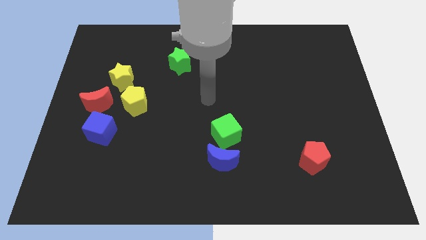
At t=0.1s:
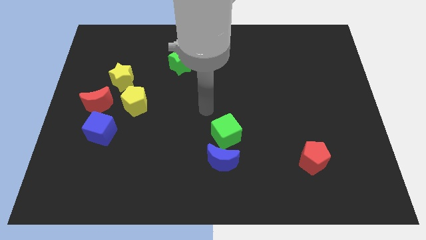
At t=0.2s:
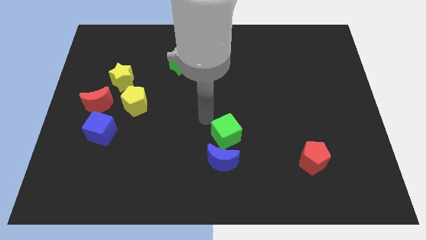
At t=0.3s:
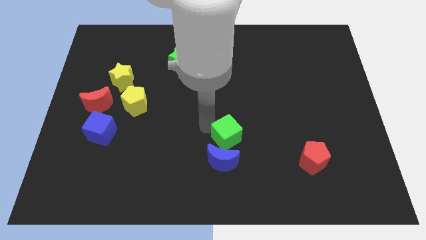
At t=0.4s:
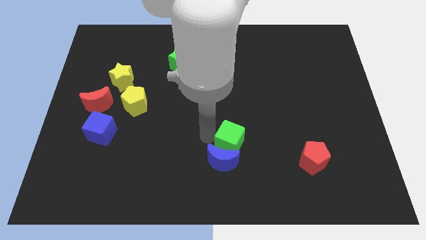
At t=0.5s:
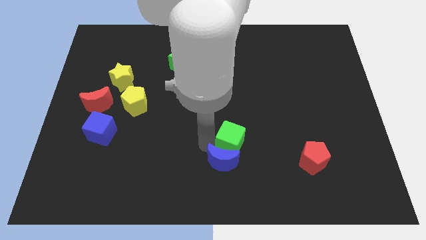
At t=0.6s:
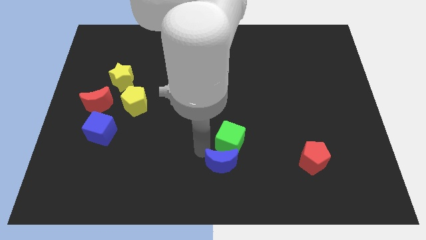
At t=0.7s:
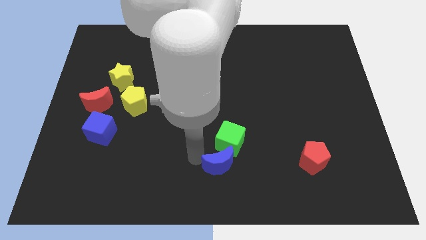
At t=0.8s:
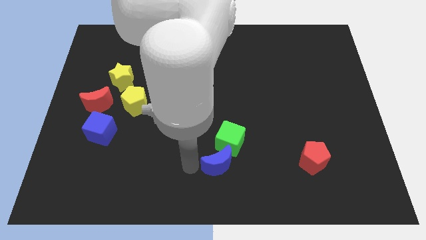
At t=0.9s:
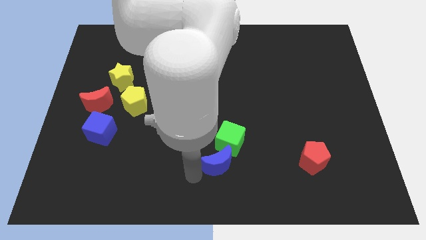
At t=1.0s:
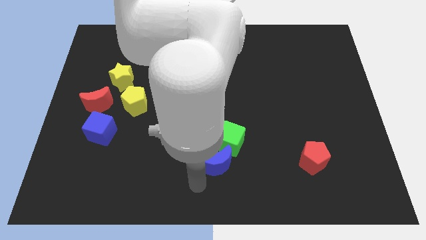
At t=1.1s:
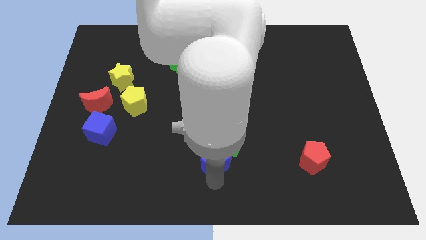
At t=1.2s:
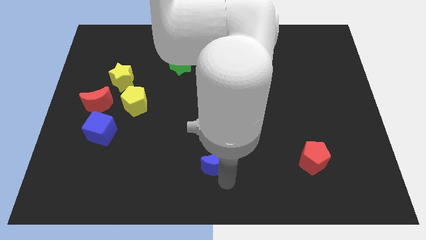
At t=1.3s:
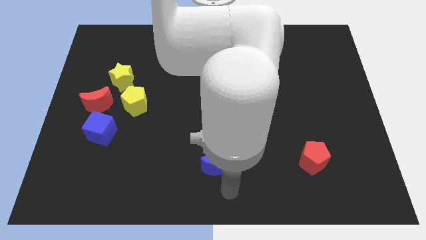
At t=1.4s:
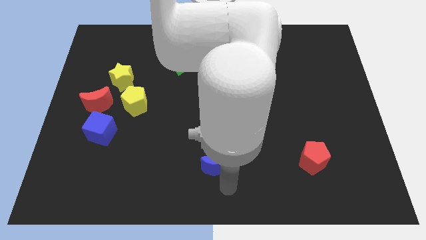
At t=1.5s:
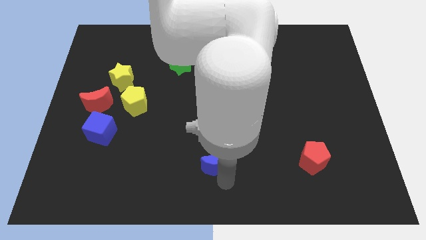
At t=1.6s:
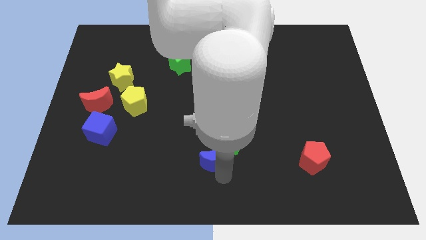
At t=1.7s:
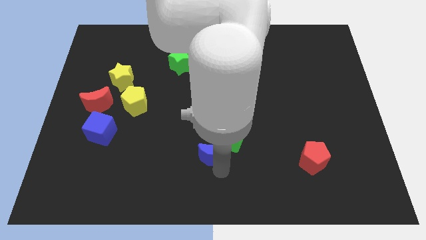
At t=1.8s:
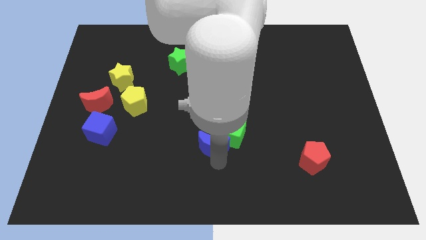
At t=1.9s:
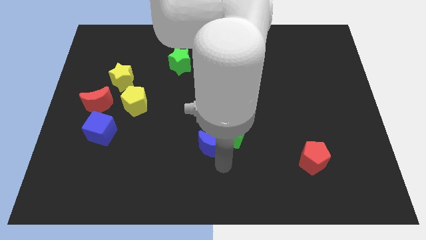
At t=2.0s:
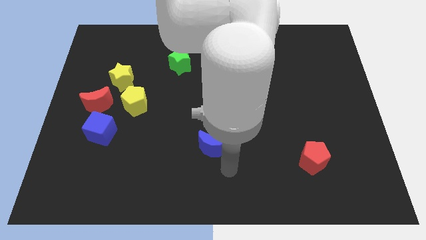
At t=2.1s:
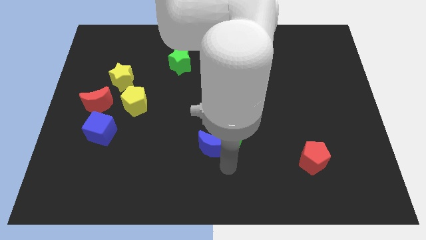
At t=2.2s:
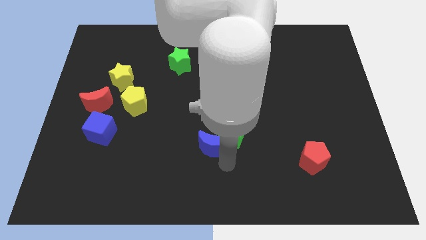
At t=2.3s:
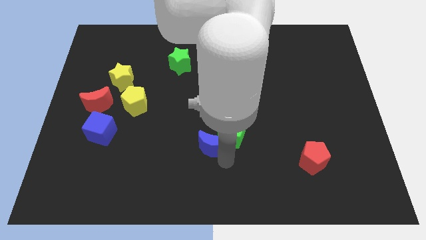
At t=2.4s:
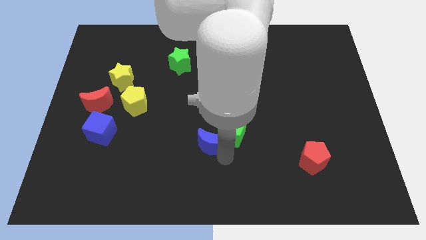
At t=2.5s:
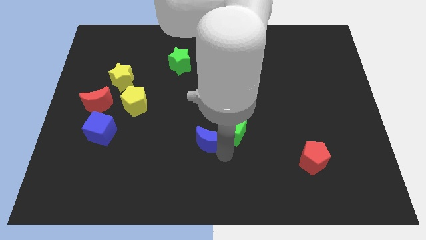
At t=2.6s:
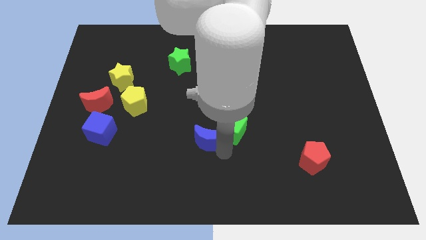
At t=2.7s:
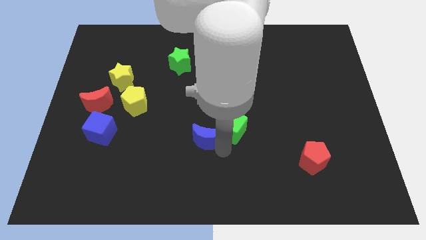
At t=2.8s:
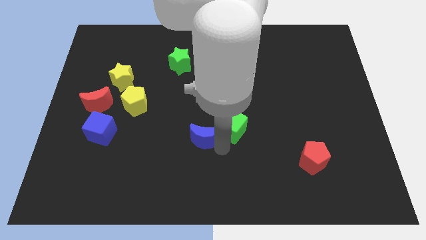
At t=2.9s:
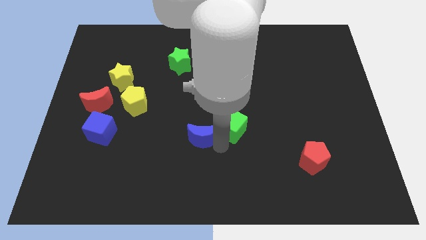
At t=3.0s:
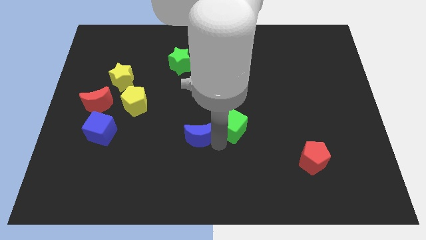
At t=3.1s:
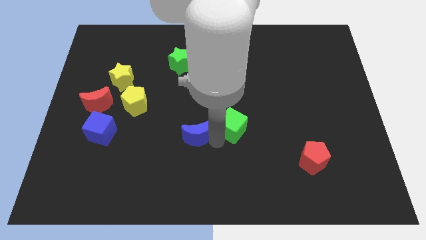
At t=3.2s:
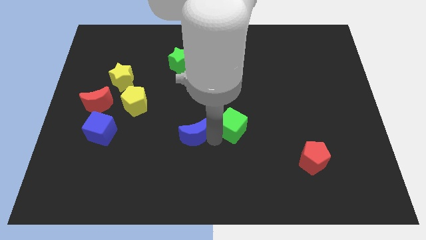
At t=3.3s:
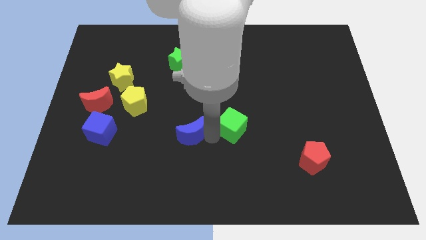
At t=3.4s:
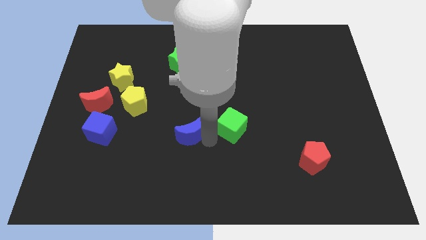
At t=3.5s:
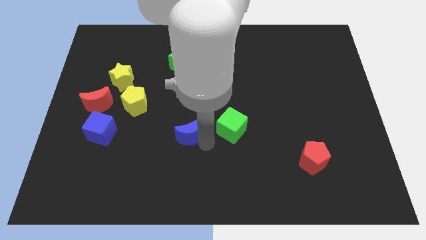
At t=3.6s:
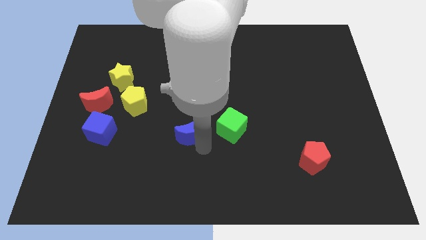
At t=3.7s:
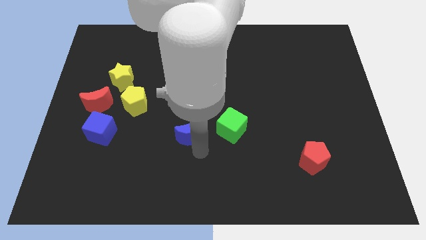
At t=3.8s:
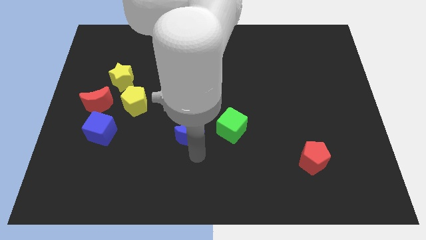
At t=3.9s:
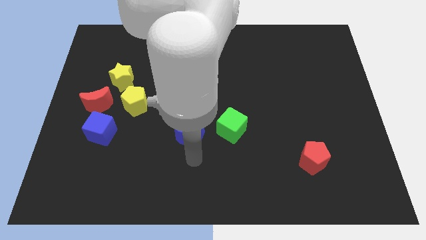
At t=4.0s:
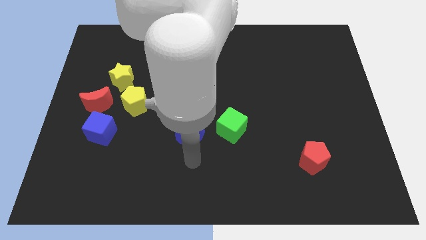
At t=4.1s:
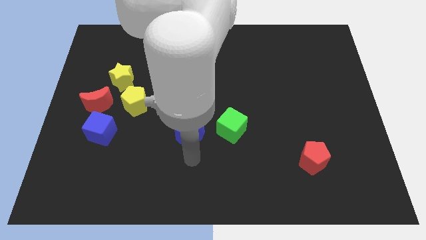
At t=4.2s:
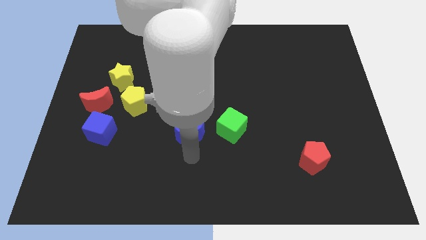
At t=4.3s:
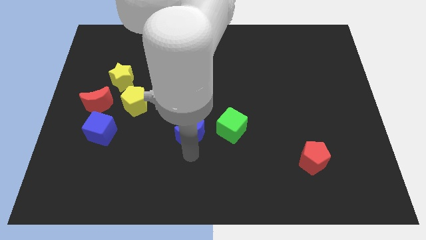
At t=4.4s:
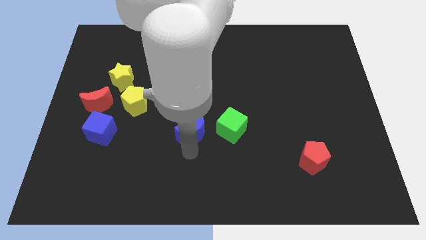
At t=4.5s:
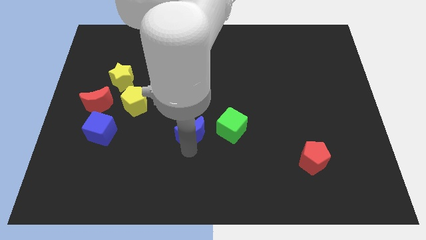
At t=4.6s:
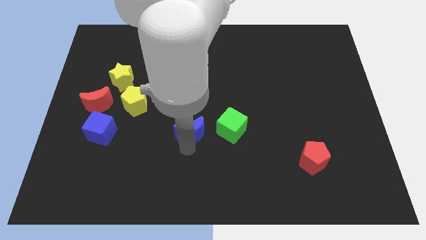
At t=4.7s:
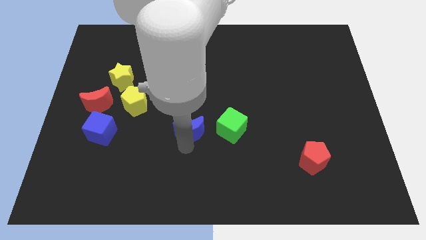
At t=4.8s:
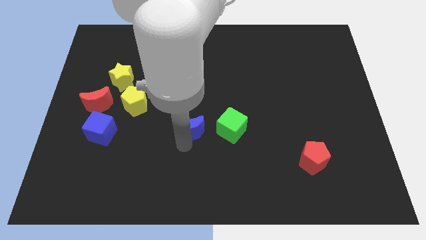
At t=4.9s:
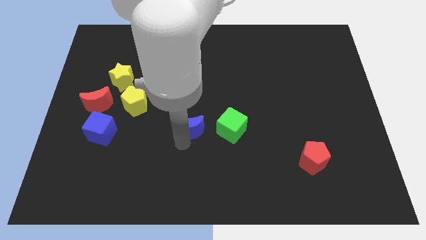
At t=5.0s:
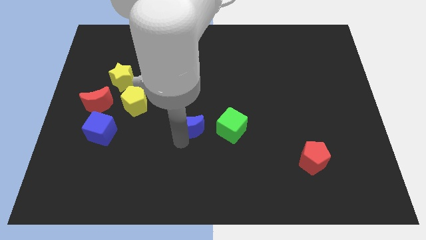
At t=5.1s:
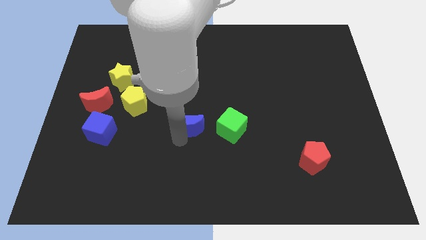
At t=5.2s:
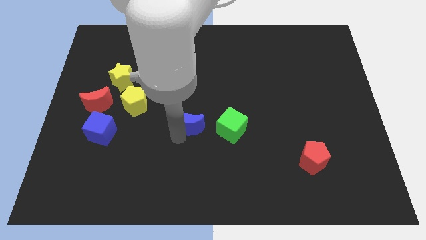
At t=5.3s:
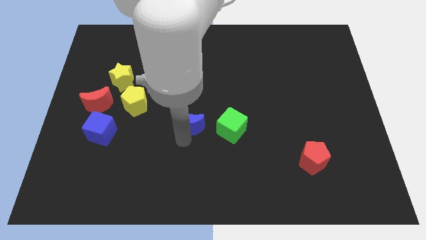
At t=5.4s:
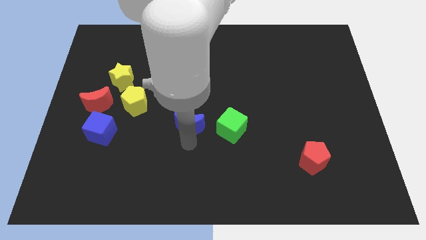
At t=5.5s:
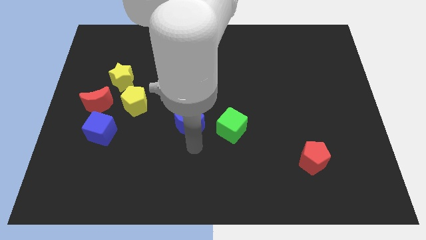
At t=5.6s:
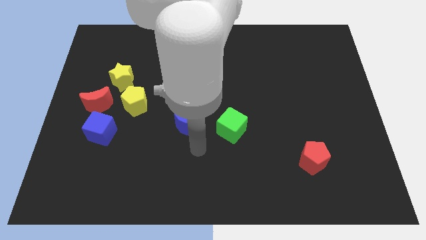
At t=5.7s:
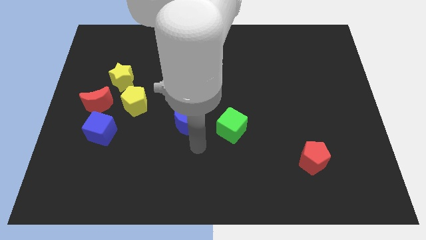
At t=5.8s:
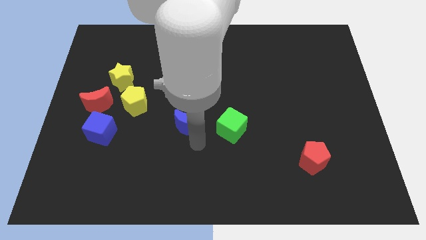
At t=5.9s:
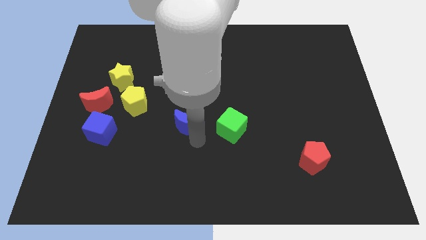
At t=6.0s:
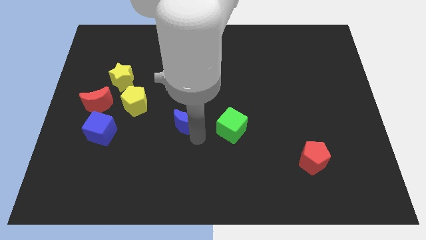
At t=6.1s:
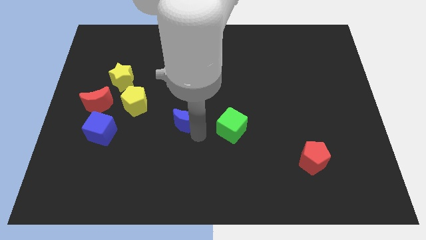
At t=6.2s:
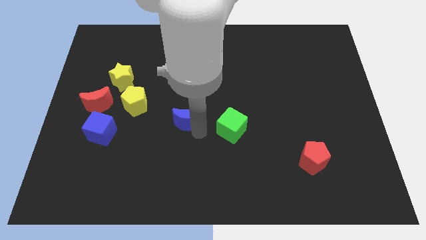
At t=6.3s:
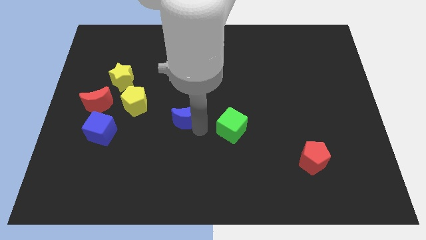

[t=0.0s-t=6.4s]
push the blue moon right of the yellow pentagon

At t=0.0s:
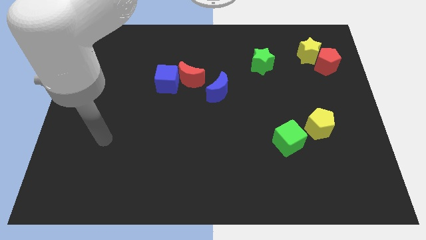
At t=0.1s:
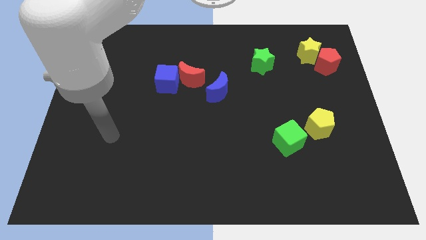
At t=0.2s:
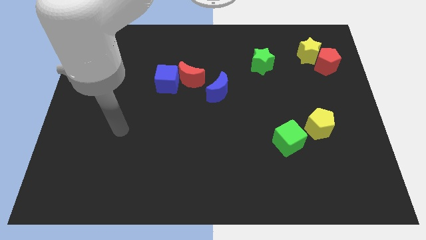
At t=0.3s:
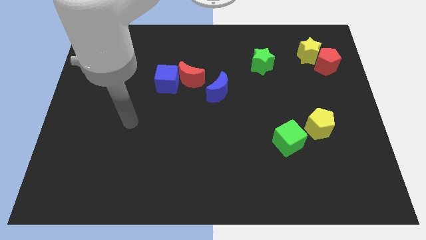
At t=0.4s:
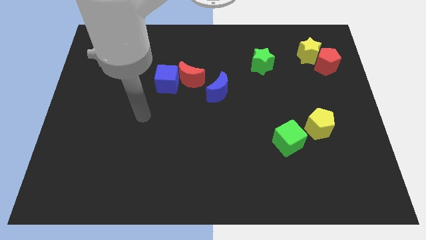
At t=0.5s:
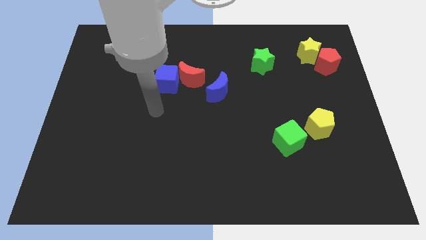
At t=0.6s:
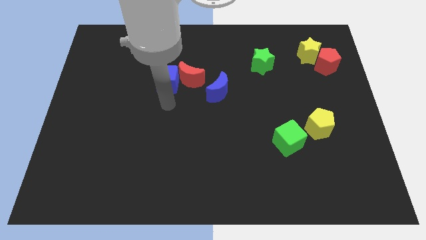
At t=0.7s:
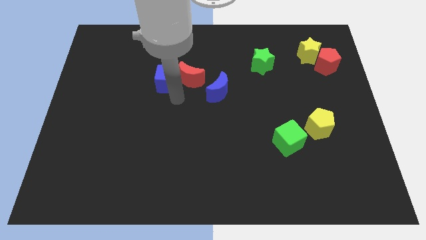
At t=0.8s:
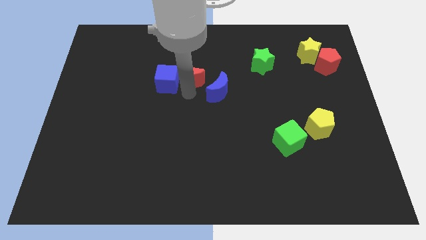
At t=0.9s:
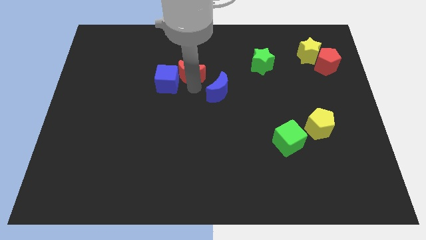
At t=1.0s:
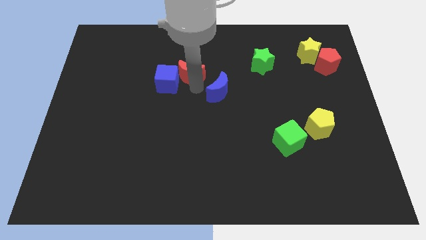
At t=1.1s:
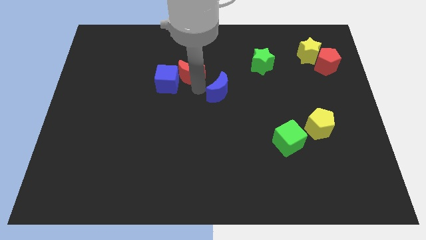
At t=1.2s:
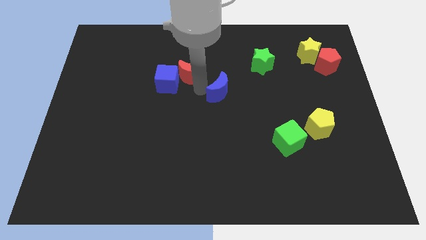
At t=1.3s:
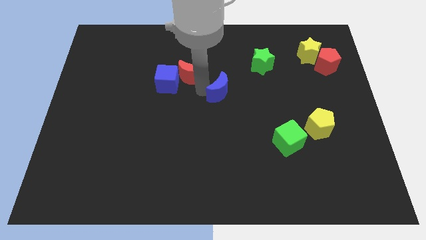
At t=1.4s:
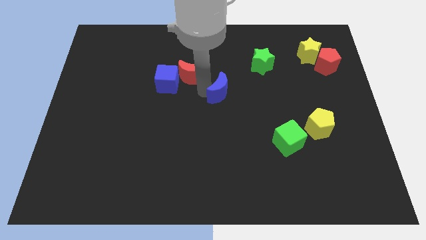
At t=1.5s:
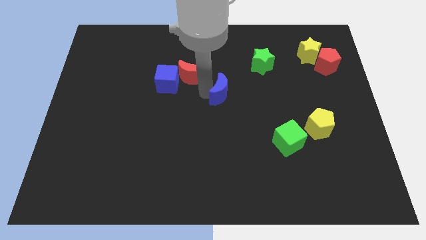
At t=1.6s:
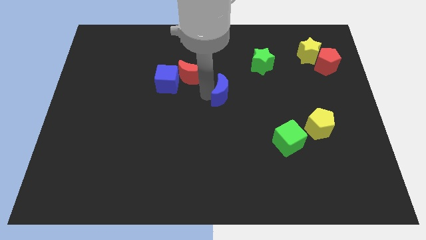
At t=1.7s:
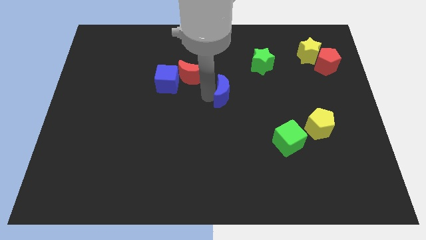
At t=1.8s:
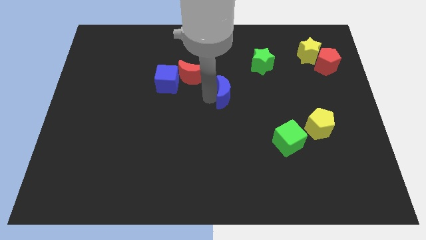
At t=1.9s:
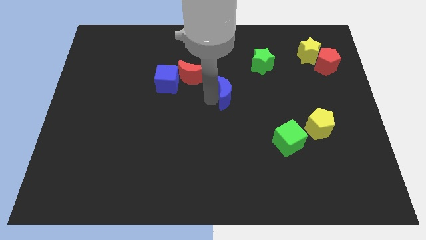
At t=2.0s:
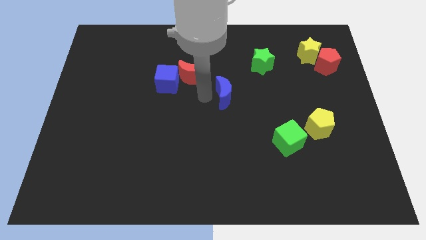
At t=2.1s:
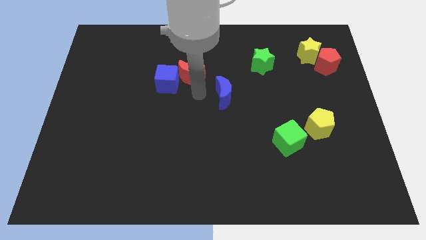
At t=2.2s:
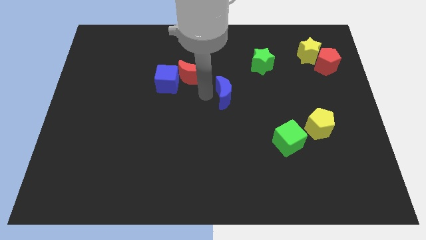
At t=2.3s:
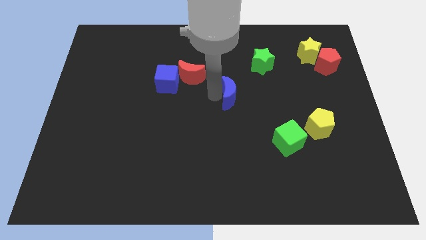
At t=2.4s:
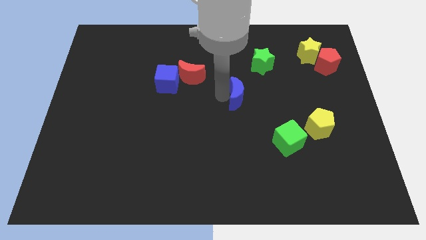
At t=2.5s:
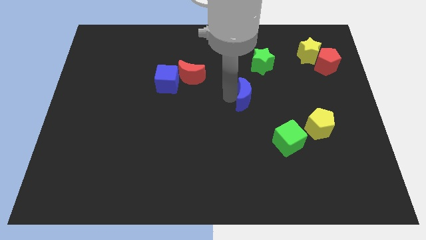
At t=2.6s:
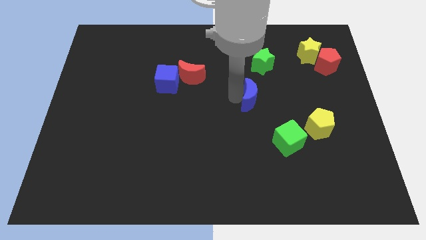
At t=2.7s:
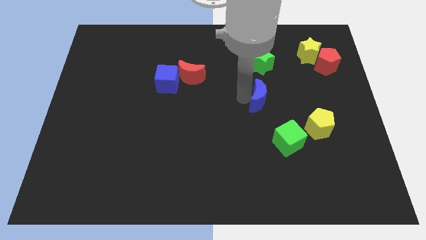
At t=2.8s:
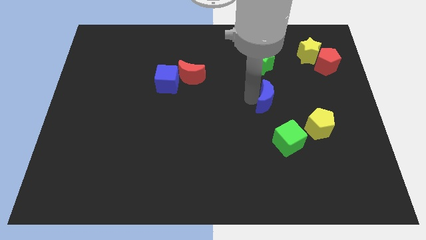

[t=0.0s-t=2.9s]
put the blue moon above the green cube
